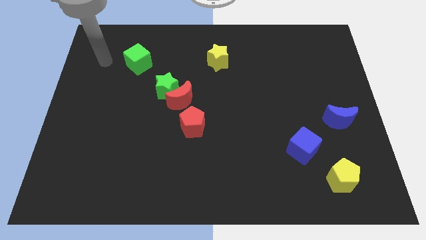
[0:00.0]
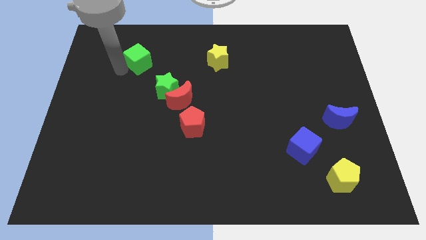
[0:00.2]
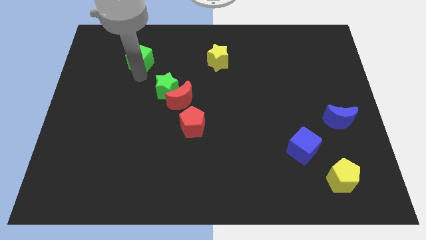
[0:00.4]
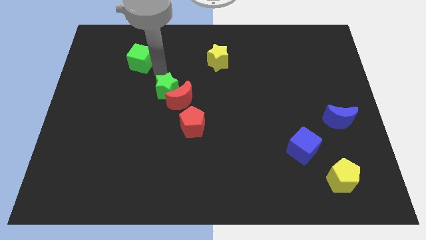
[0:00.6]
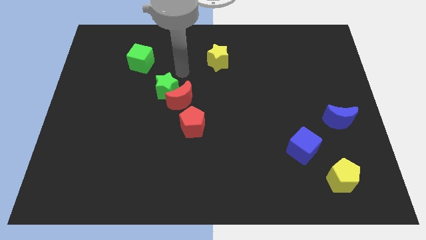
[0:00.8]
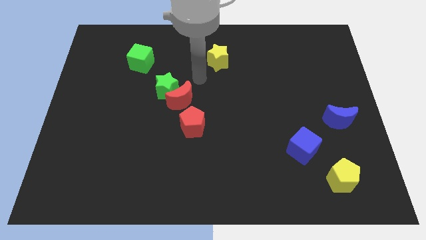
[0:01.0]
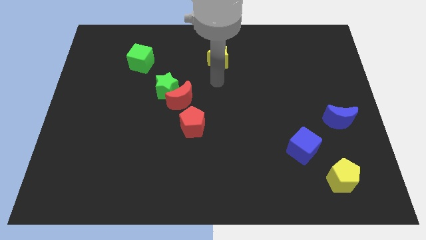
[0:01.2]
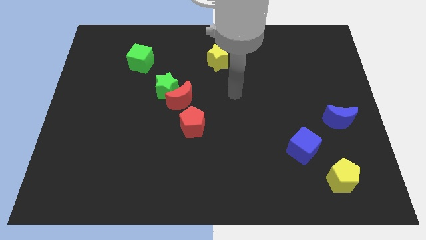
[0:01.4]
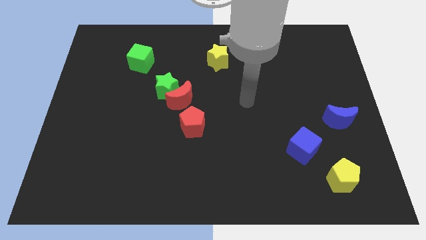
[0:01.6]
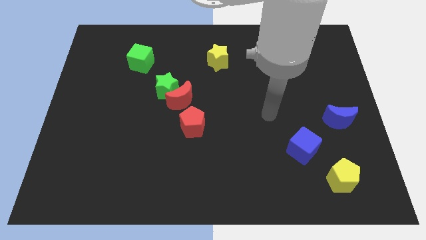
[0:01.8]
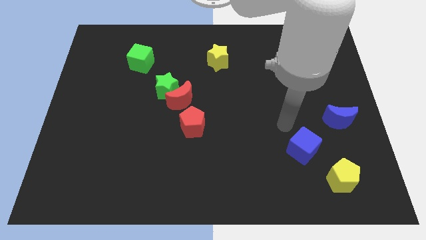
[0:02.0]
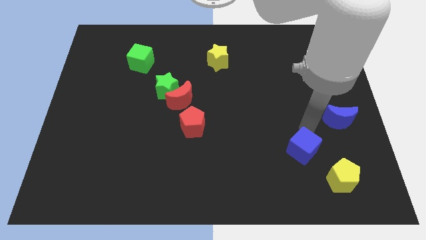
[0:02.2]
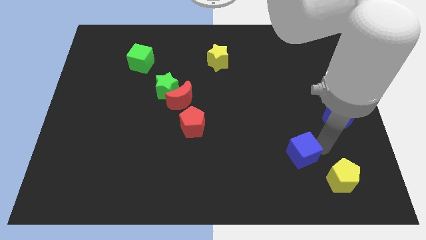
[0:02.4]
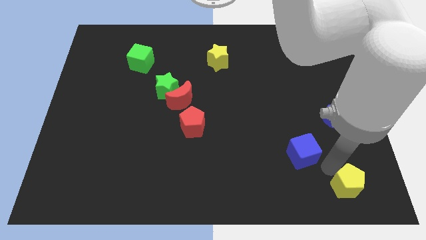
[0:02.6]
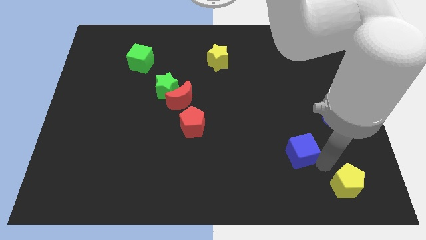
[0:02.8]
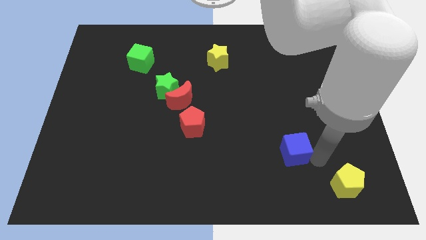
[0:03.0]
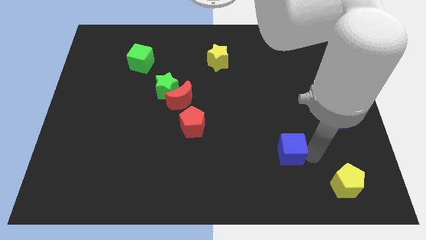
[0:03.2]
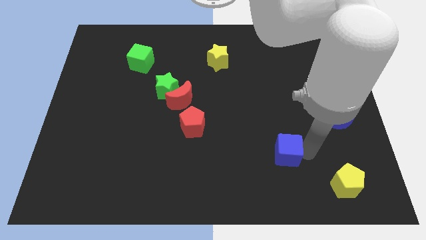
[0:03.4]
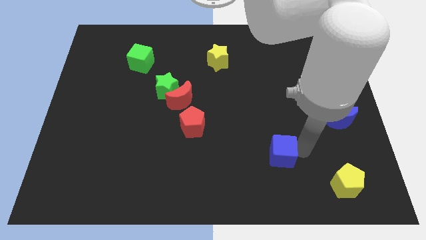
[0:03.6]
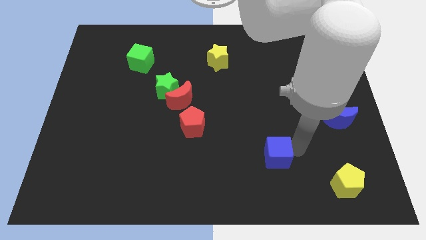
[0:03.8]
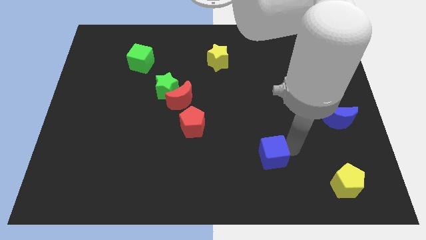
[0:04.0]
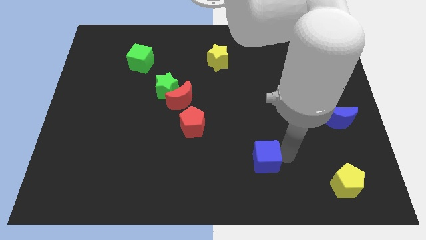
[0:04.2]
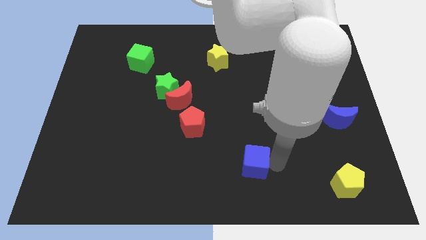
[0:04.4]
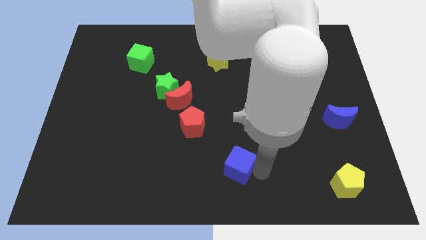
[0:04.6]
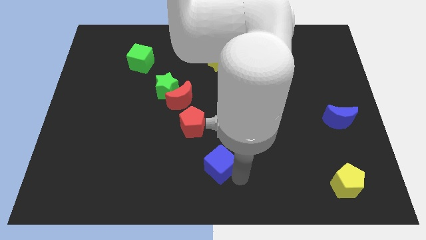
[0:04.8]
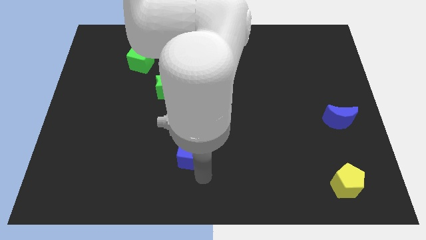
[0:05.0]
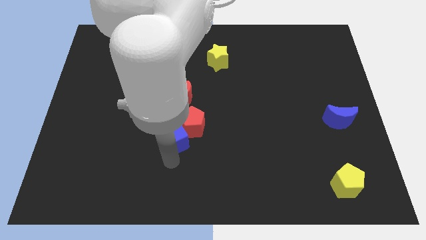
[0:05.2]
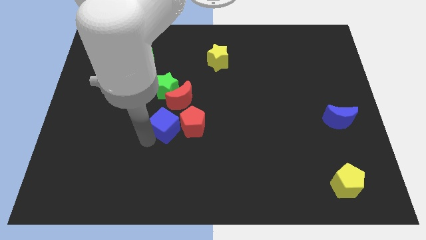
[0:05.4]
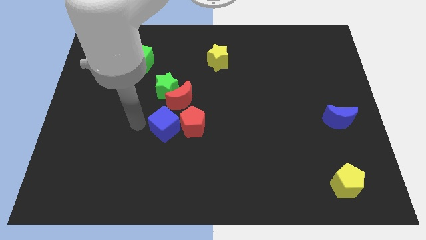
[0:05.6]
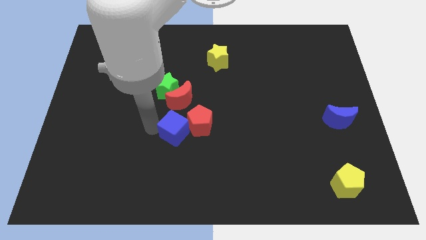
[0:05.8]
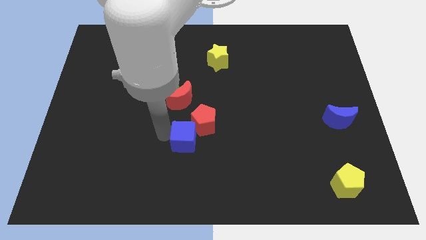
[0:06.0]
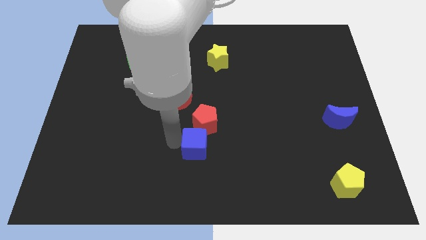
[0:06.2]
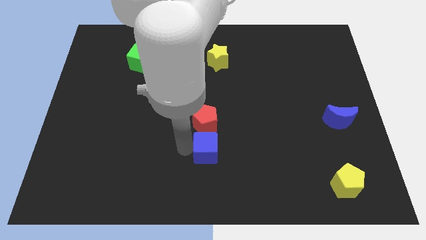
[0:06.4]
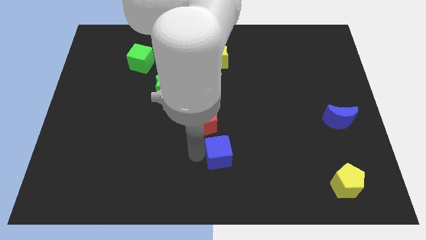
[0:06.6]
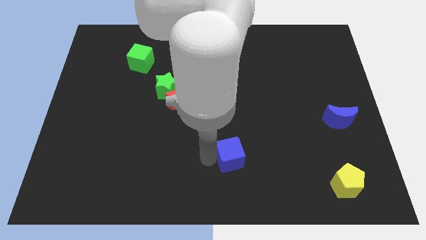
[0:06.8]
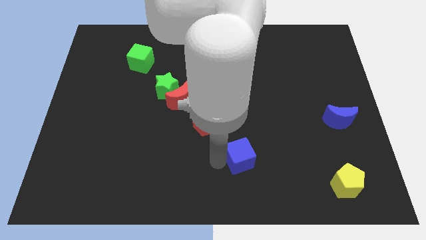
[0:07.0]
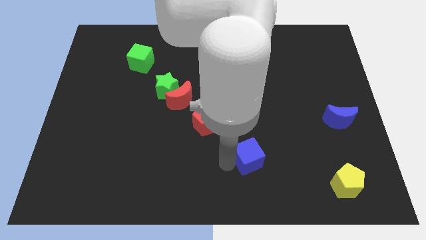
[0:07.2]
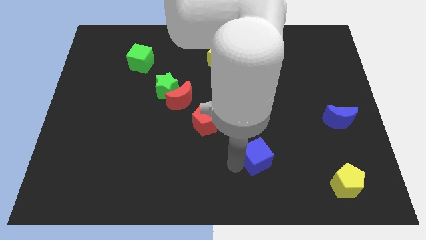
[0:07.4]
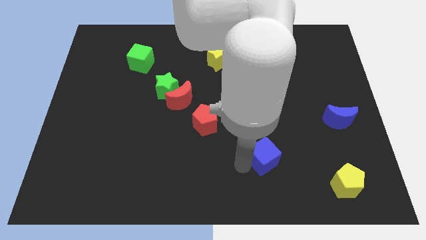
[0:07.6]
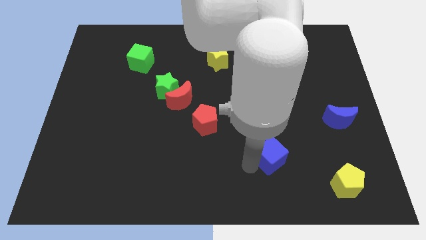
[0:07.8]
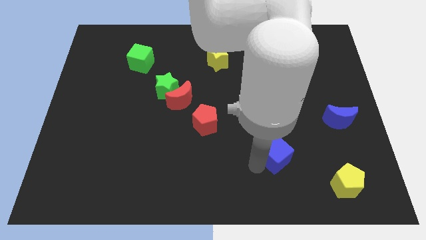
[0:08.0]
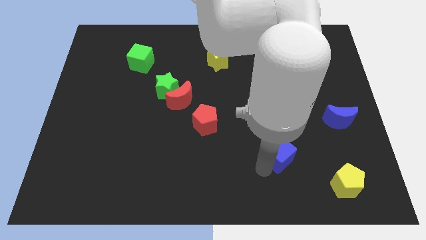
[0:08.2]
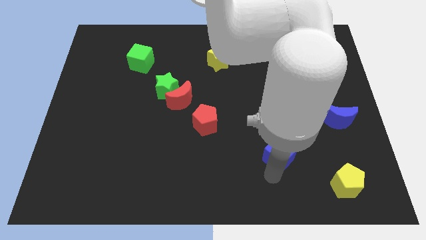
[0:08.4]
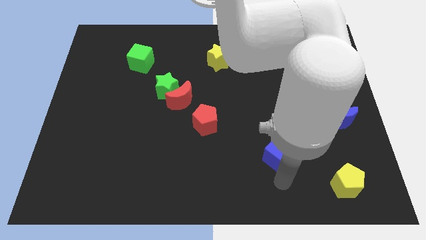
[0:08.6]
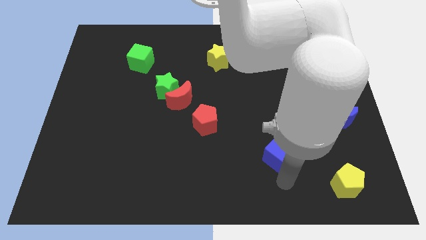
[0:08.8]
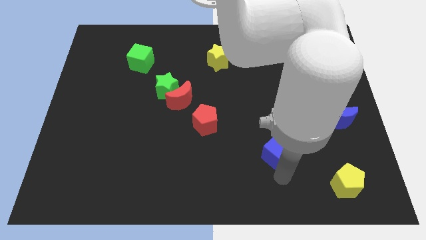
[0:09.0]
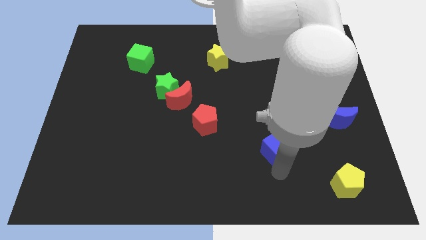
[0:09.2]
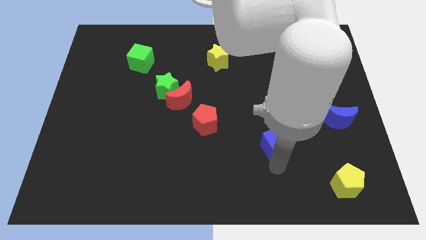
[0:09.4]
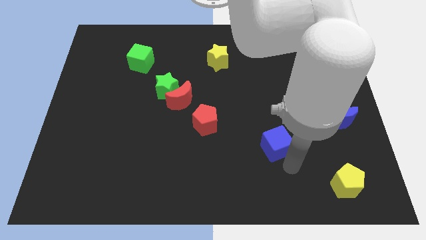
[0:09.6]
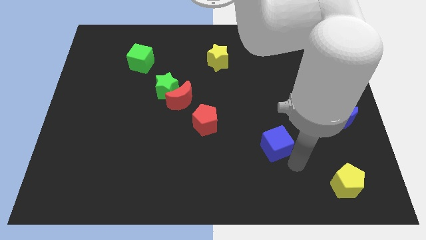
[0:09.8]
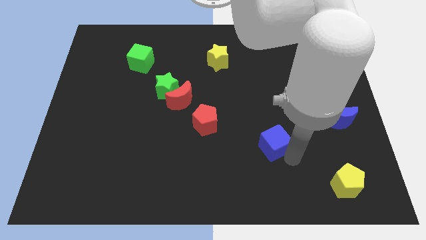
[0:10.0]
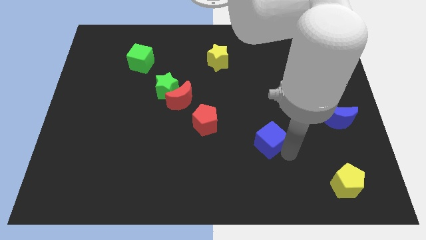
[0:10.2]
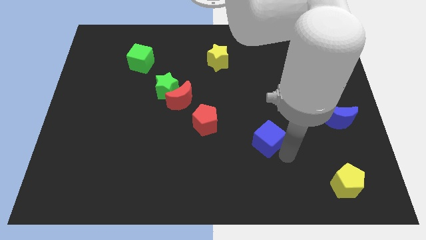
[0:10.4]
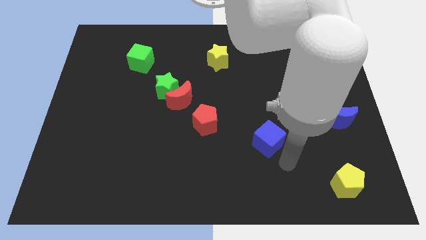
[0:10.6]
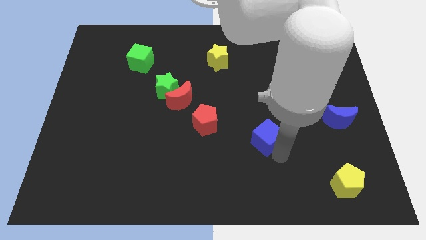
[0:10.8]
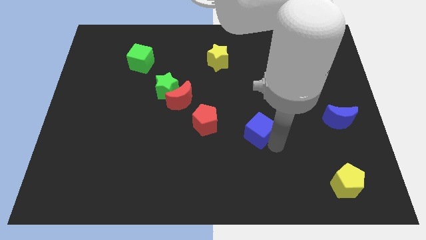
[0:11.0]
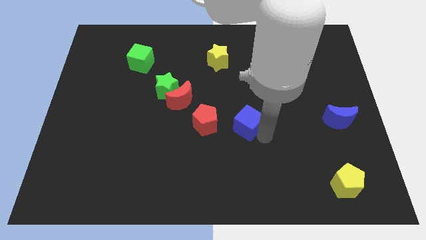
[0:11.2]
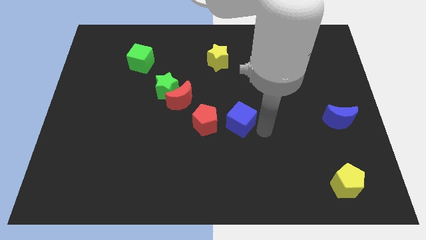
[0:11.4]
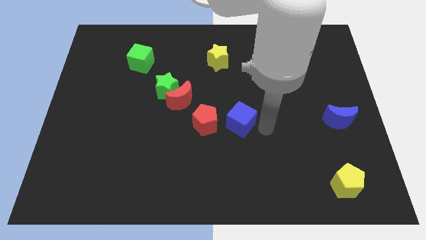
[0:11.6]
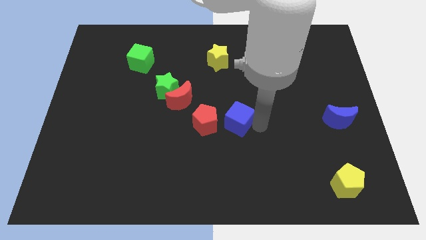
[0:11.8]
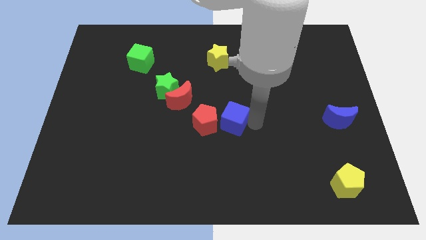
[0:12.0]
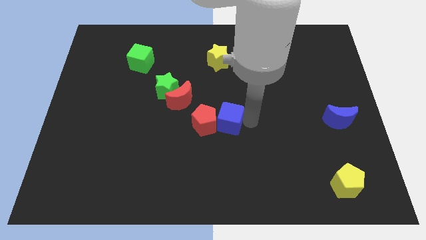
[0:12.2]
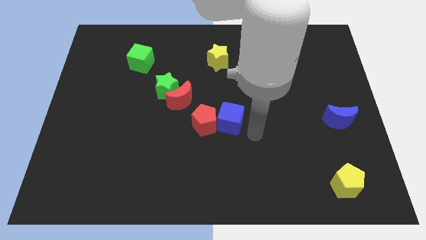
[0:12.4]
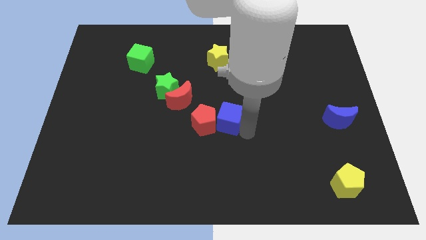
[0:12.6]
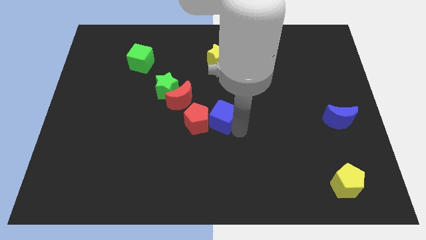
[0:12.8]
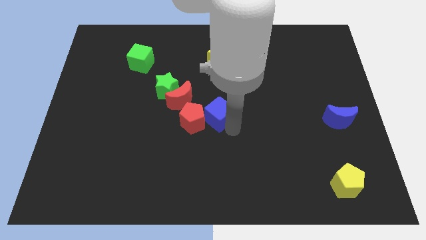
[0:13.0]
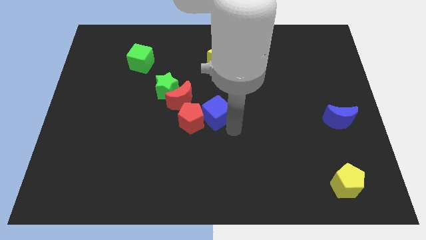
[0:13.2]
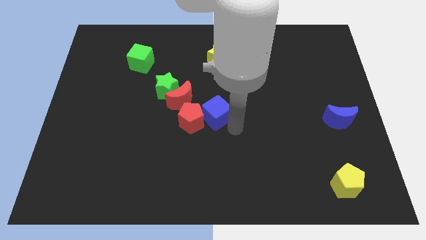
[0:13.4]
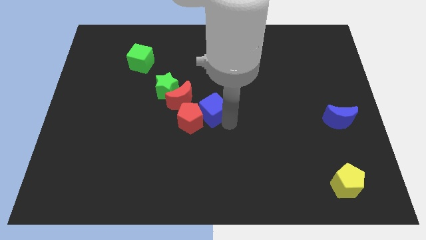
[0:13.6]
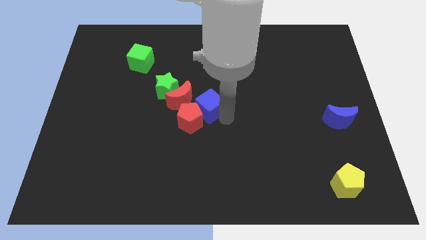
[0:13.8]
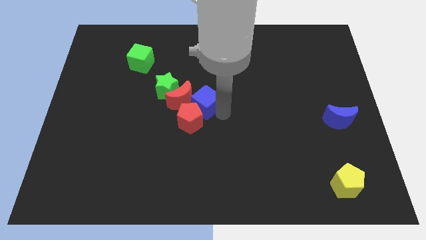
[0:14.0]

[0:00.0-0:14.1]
put the blue cube close to the red moon

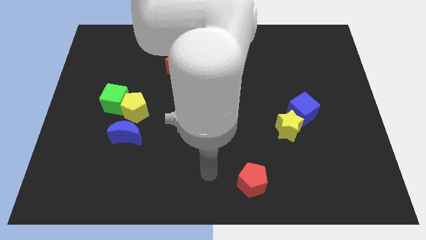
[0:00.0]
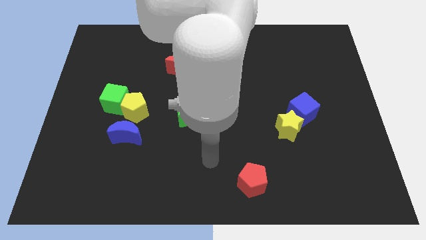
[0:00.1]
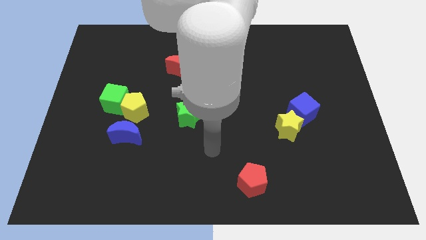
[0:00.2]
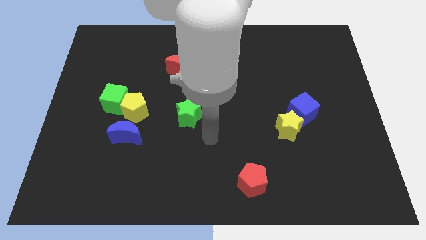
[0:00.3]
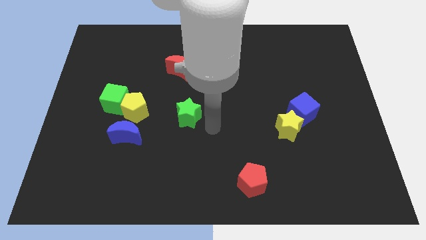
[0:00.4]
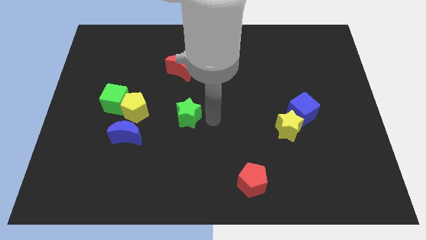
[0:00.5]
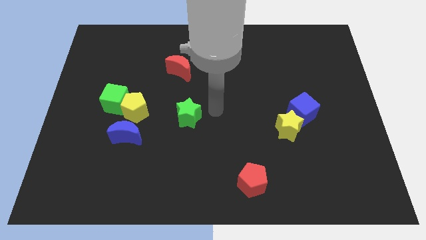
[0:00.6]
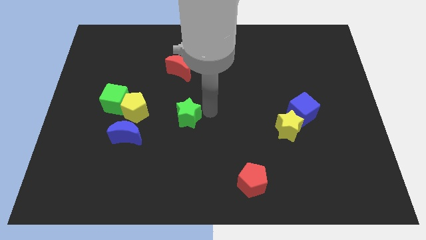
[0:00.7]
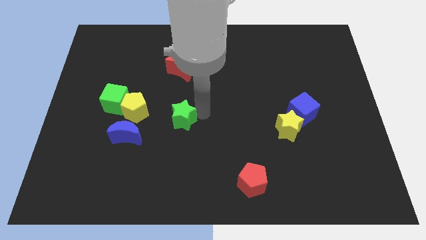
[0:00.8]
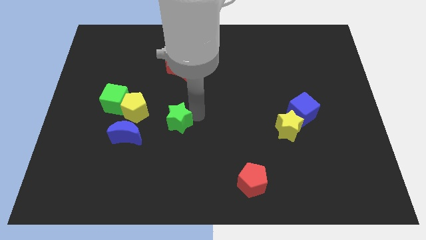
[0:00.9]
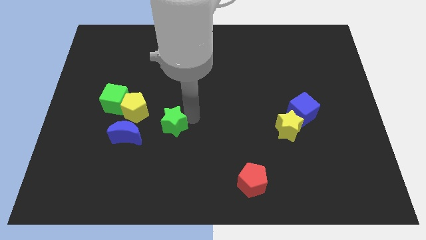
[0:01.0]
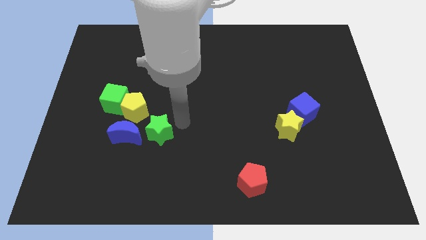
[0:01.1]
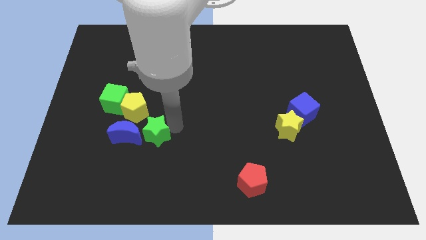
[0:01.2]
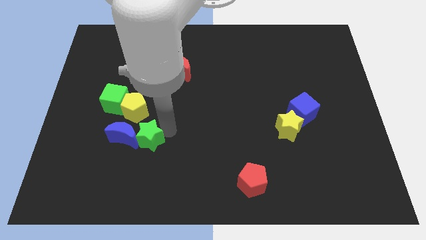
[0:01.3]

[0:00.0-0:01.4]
push the green star next to the blue moon
